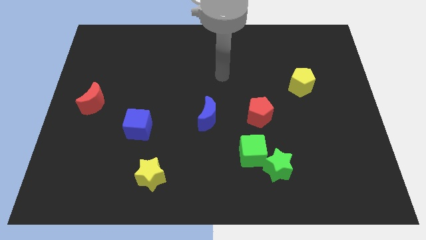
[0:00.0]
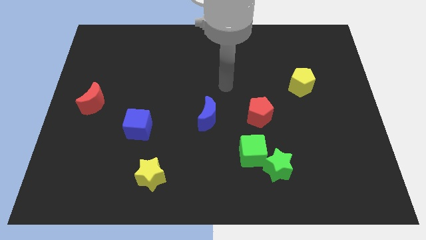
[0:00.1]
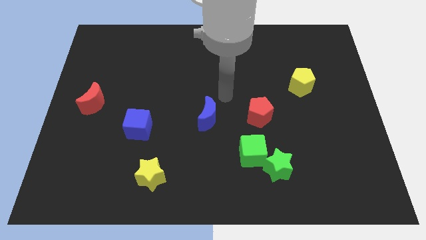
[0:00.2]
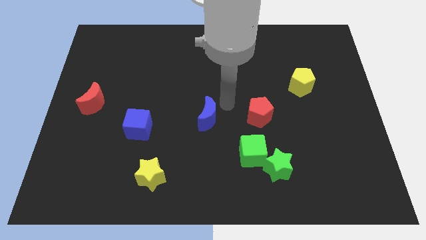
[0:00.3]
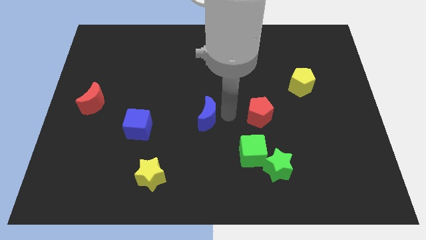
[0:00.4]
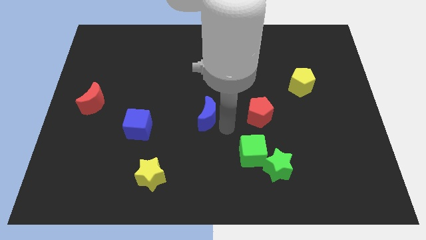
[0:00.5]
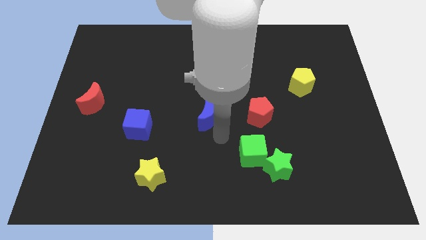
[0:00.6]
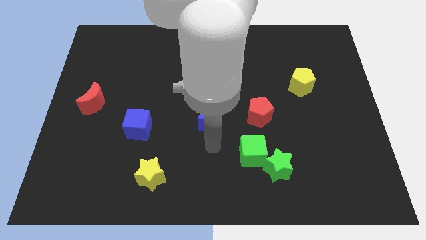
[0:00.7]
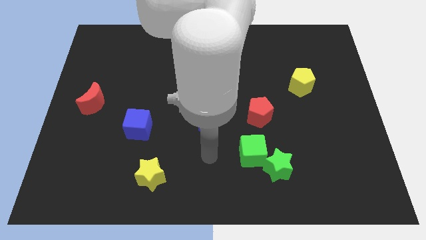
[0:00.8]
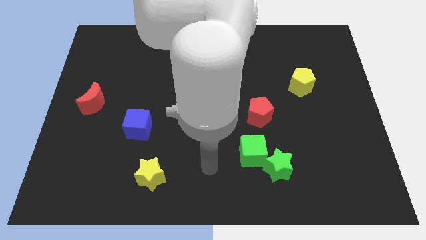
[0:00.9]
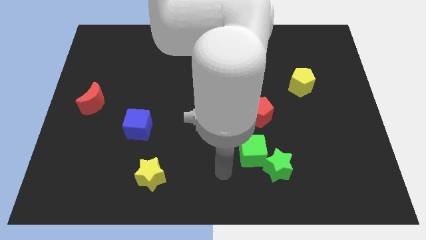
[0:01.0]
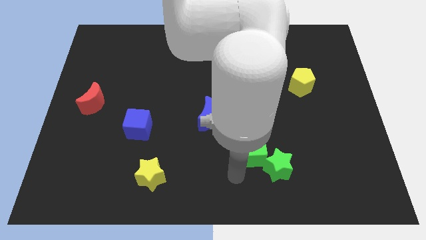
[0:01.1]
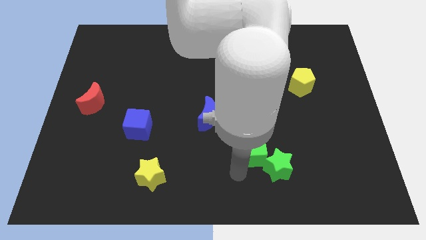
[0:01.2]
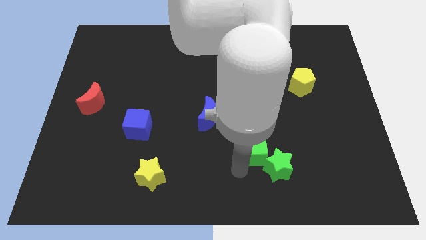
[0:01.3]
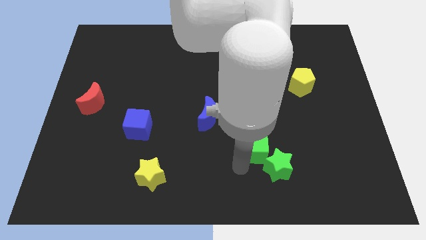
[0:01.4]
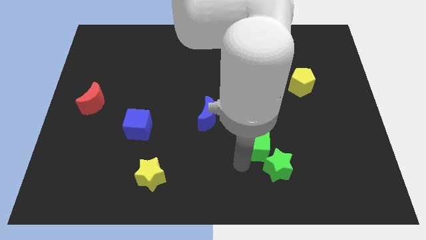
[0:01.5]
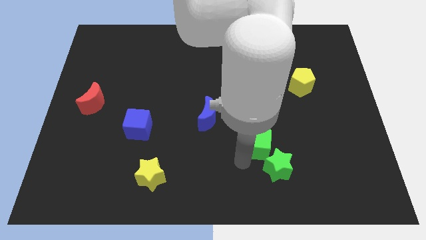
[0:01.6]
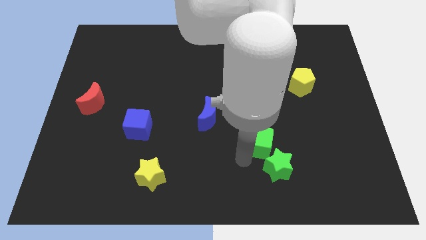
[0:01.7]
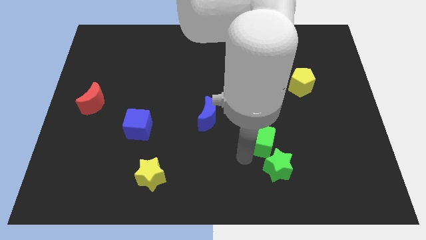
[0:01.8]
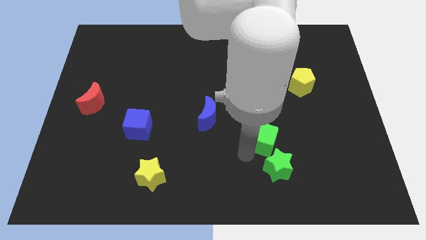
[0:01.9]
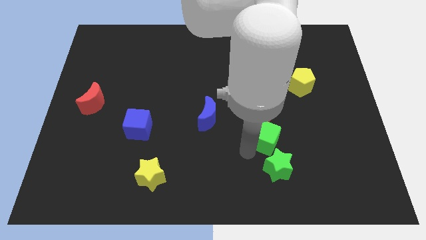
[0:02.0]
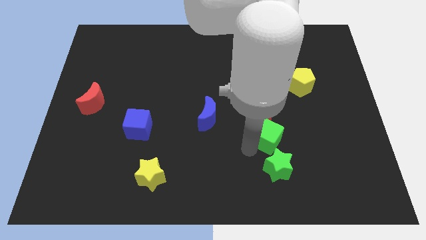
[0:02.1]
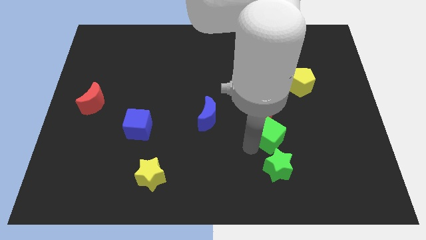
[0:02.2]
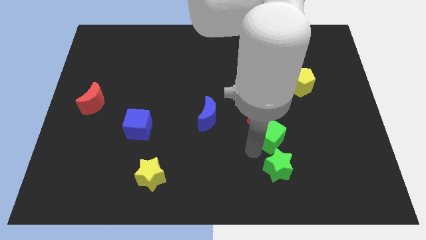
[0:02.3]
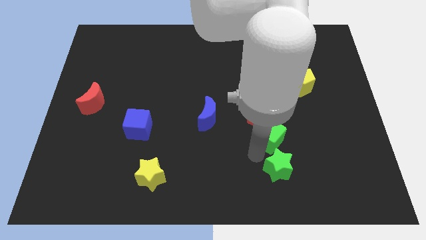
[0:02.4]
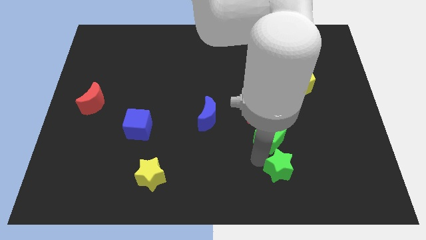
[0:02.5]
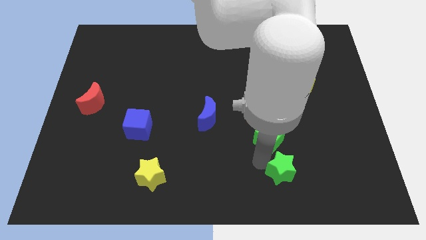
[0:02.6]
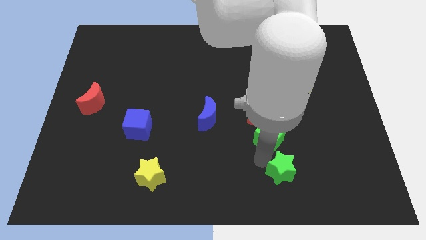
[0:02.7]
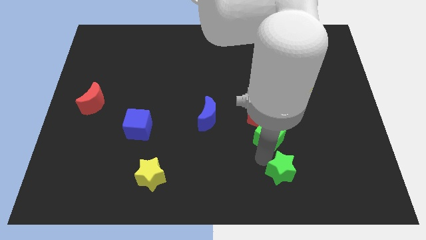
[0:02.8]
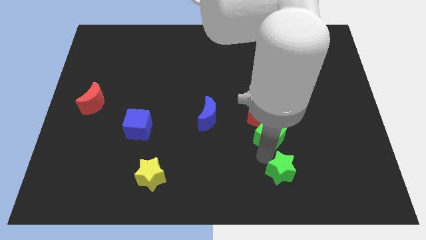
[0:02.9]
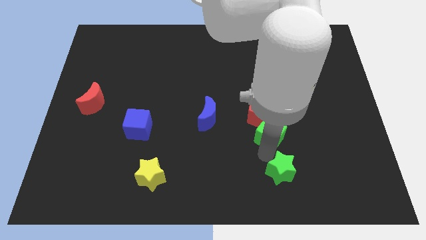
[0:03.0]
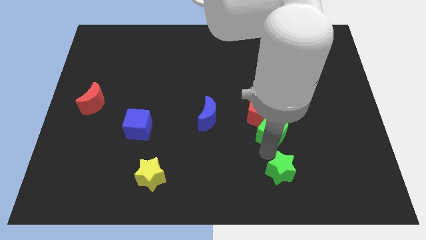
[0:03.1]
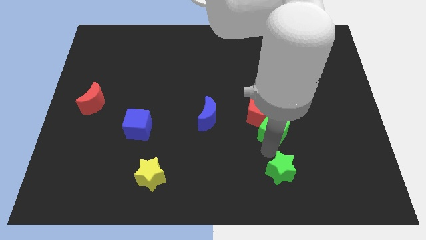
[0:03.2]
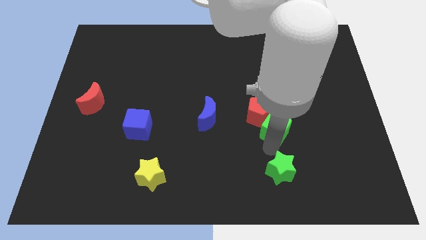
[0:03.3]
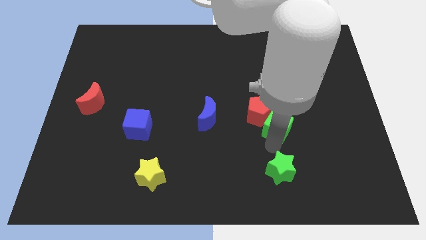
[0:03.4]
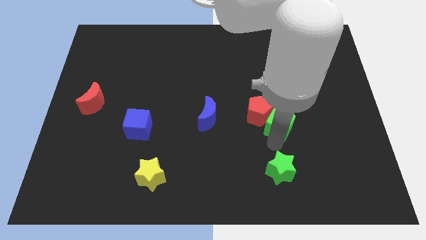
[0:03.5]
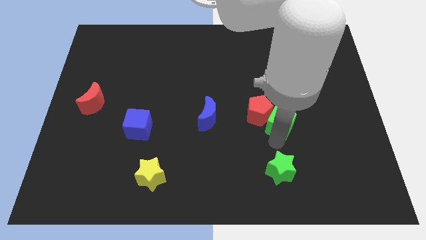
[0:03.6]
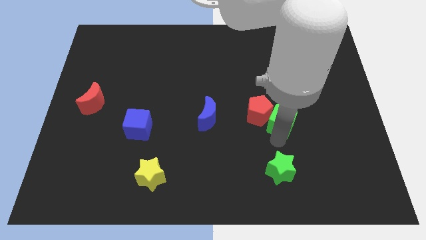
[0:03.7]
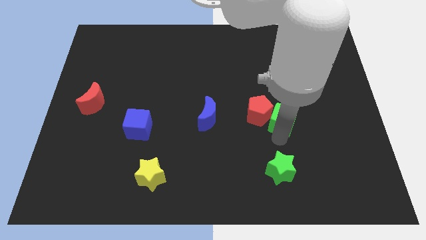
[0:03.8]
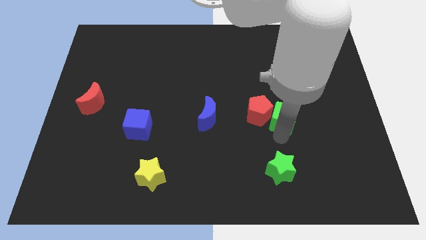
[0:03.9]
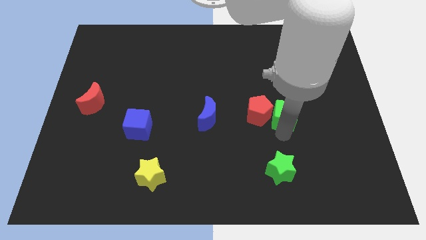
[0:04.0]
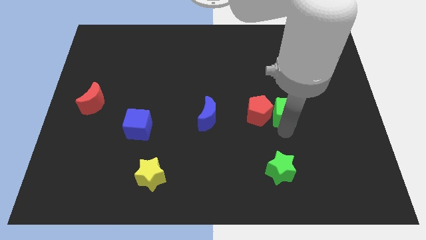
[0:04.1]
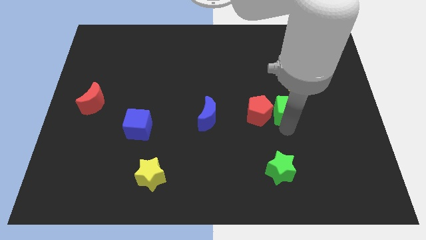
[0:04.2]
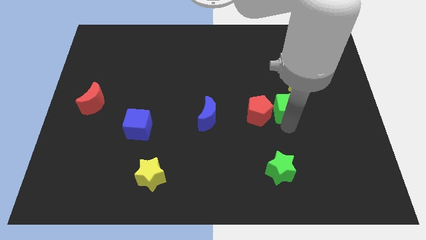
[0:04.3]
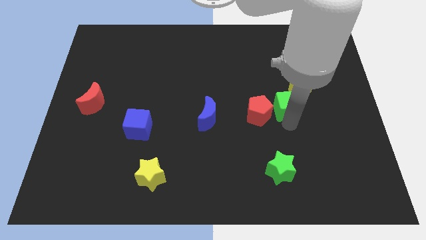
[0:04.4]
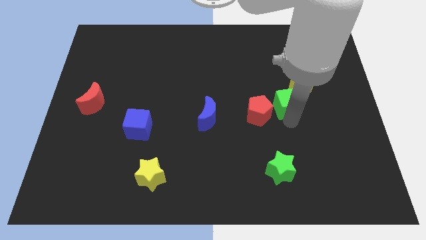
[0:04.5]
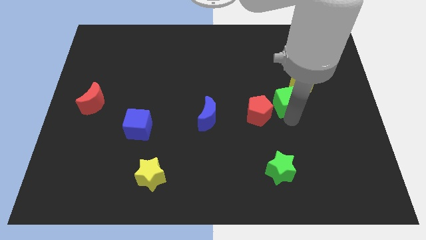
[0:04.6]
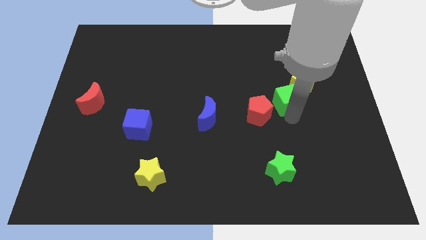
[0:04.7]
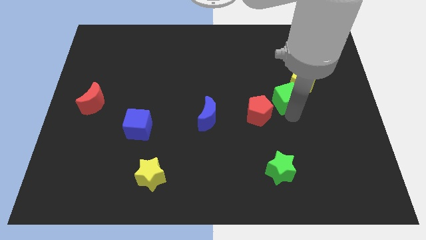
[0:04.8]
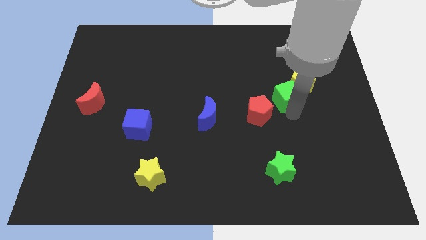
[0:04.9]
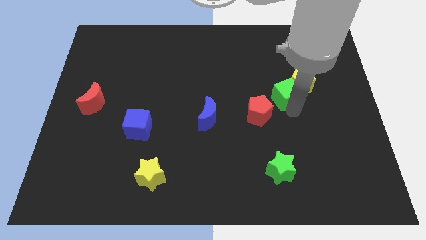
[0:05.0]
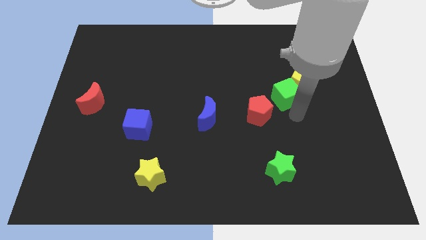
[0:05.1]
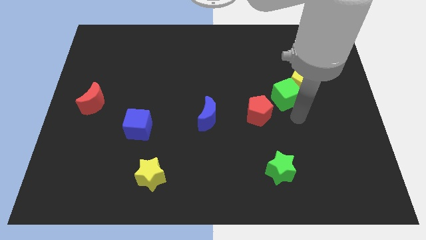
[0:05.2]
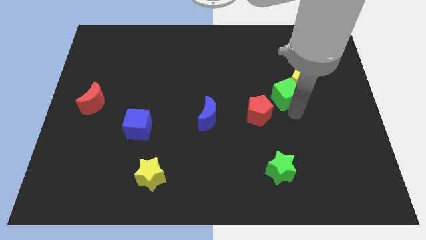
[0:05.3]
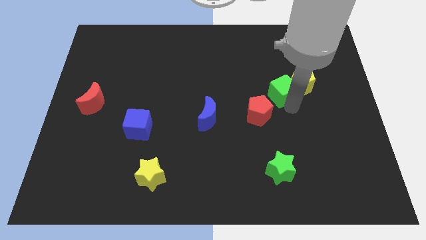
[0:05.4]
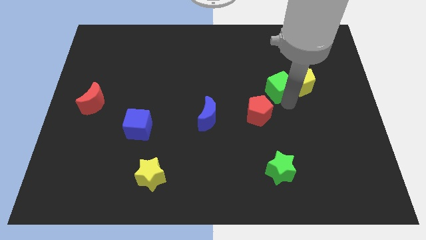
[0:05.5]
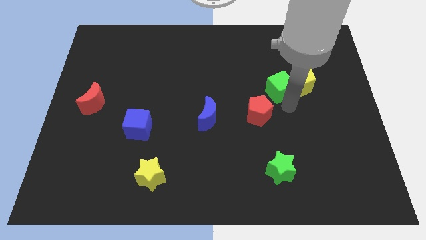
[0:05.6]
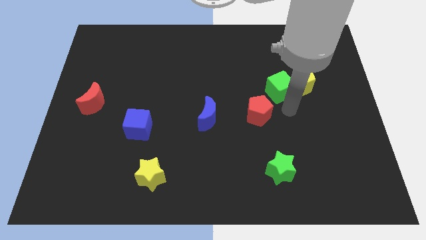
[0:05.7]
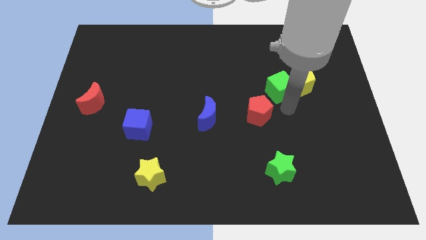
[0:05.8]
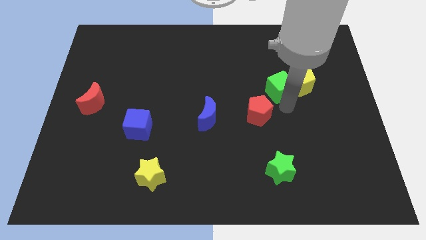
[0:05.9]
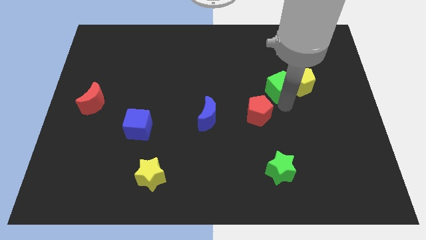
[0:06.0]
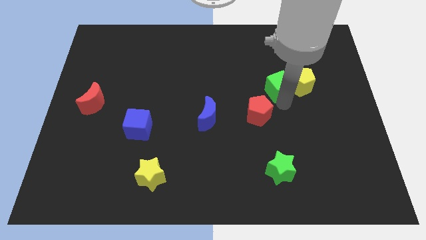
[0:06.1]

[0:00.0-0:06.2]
slide the green cube to the top left side of the yellow pentagon
